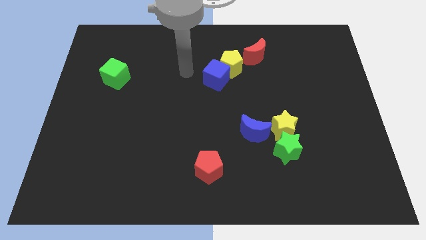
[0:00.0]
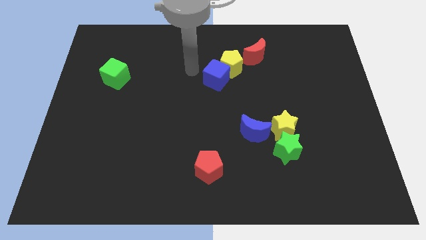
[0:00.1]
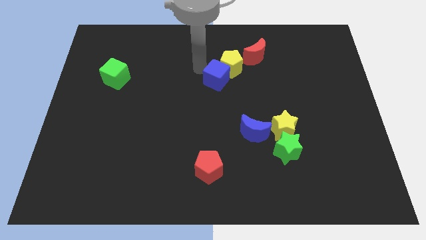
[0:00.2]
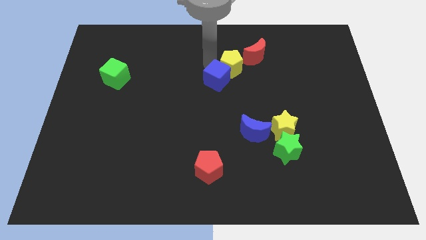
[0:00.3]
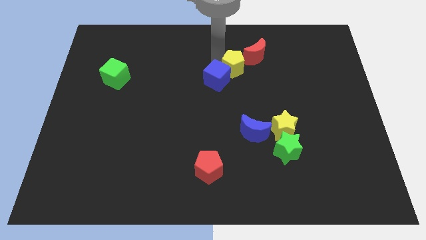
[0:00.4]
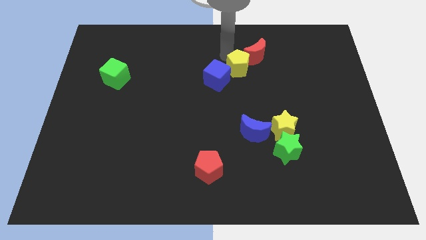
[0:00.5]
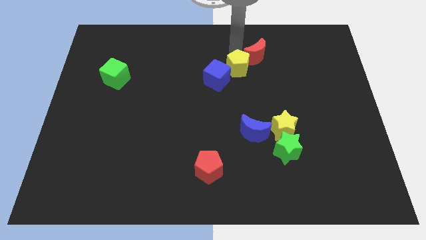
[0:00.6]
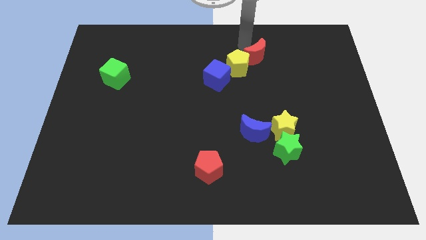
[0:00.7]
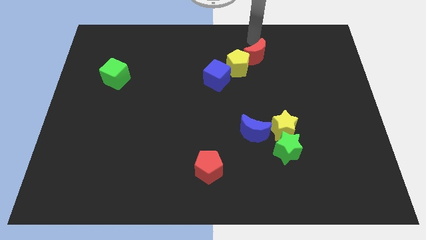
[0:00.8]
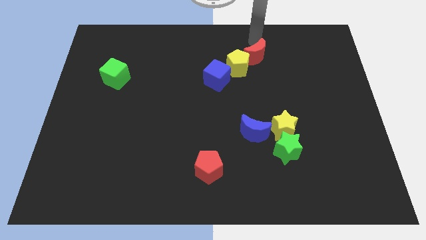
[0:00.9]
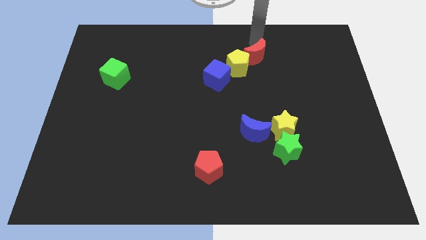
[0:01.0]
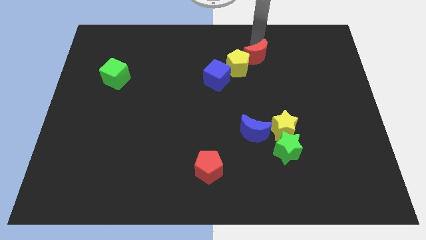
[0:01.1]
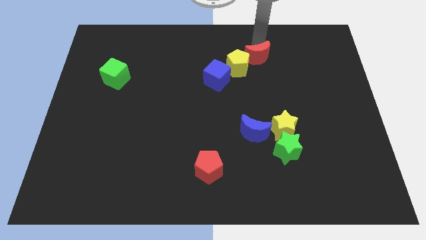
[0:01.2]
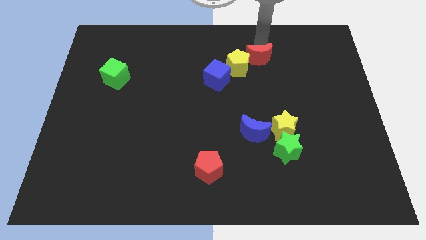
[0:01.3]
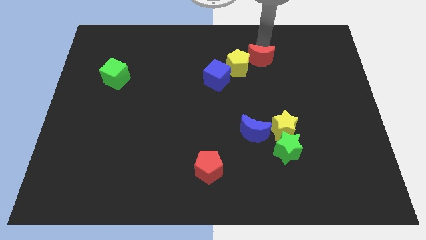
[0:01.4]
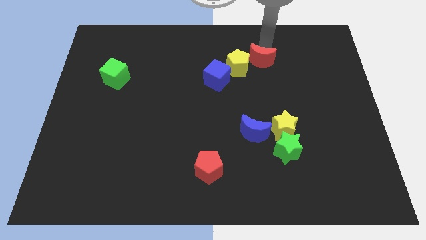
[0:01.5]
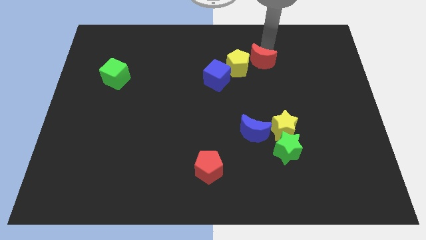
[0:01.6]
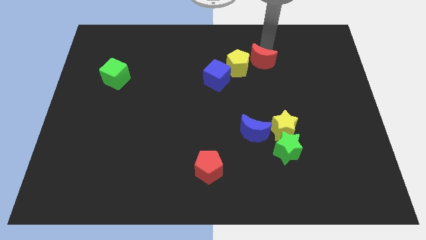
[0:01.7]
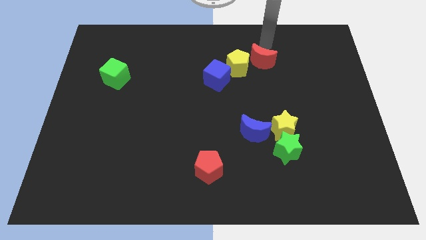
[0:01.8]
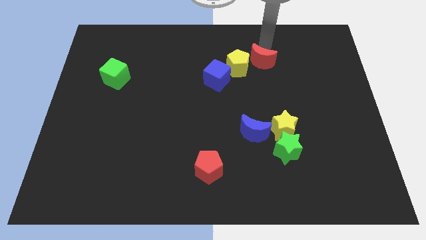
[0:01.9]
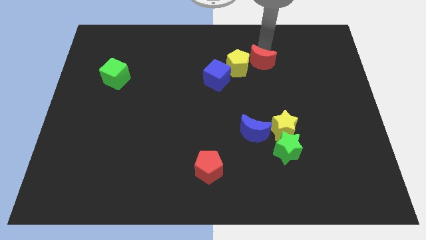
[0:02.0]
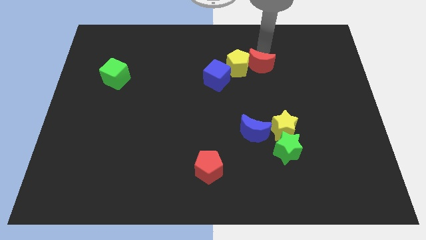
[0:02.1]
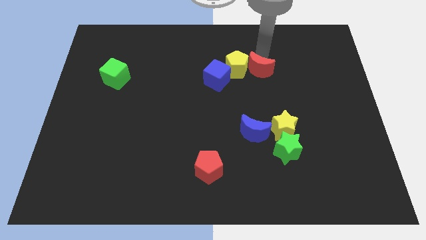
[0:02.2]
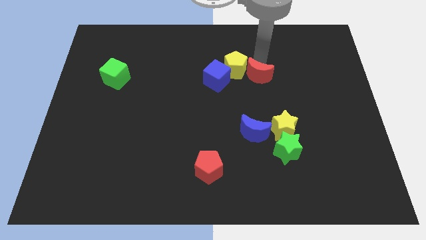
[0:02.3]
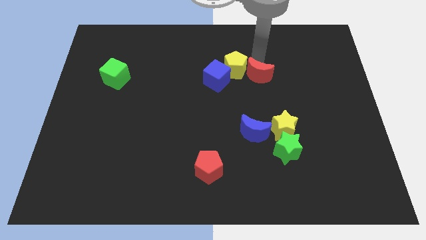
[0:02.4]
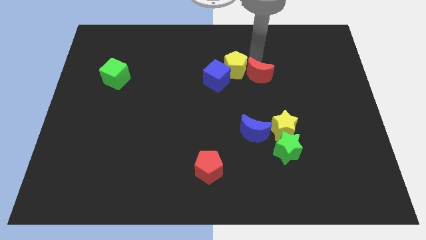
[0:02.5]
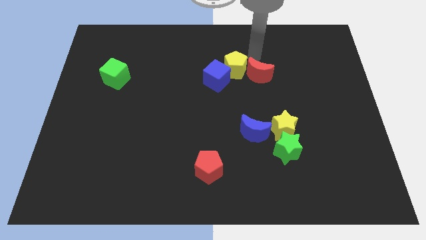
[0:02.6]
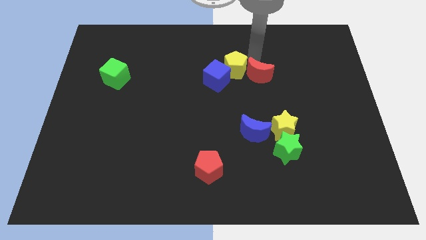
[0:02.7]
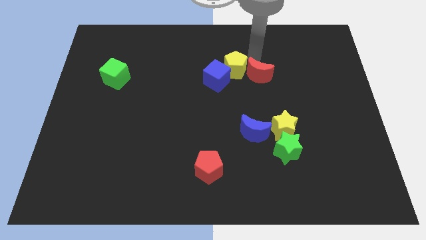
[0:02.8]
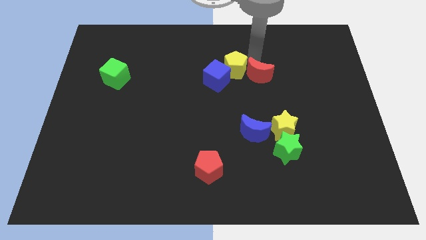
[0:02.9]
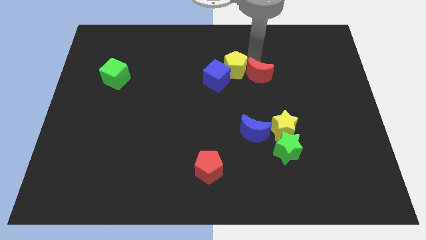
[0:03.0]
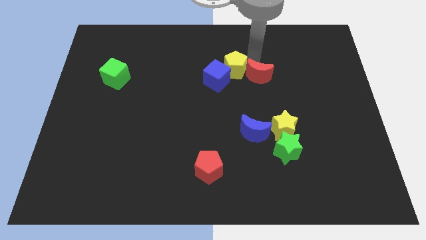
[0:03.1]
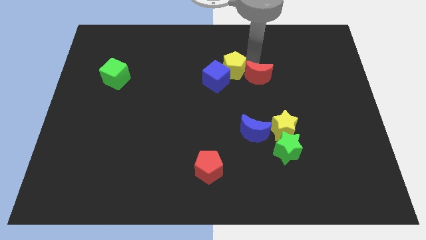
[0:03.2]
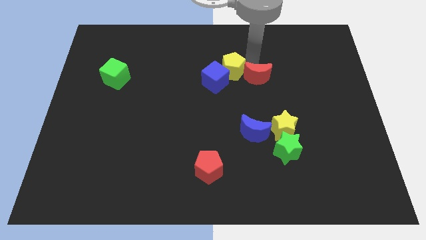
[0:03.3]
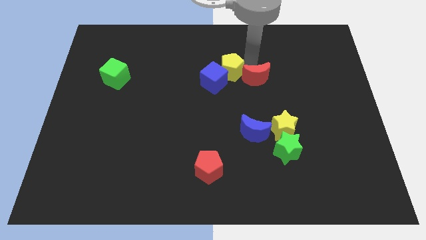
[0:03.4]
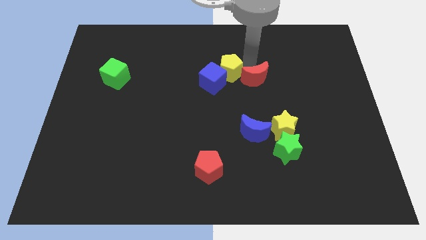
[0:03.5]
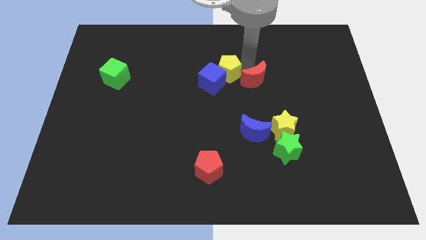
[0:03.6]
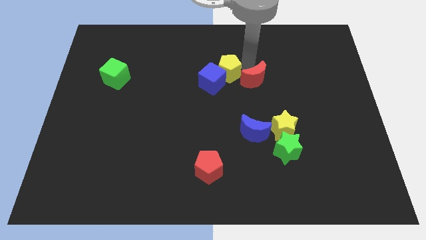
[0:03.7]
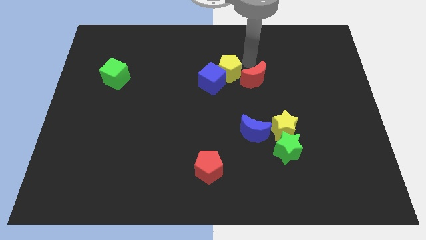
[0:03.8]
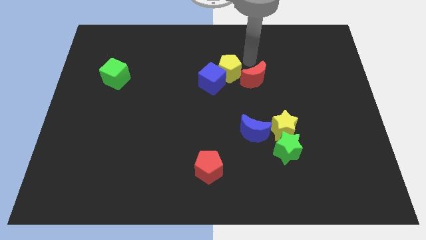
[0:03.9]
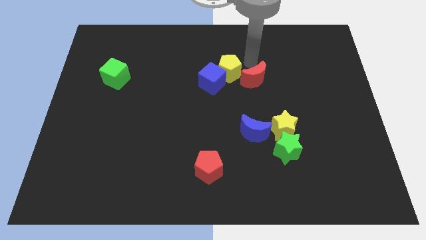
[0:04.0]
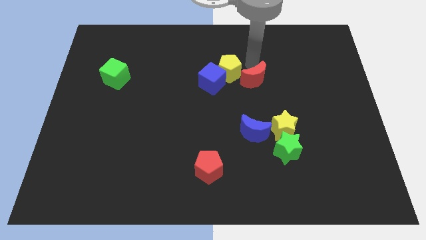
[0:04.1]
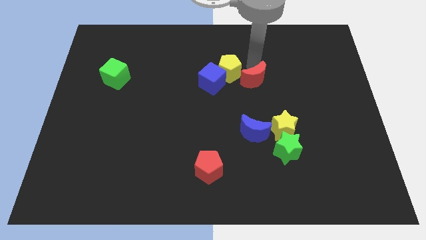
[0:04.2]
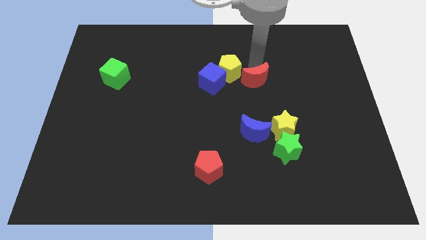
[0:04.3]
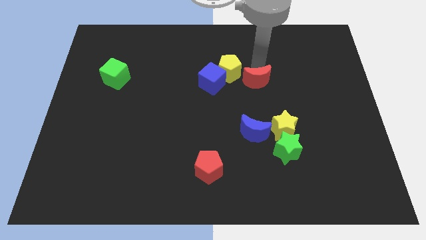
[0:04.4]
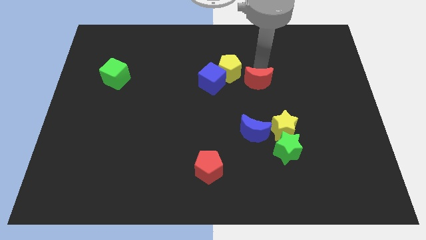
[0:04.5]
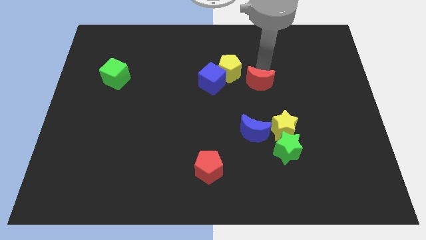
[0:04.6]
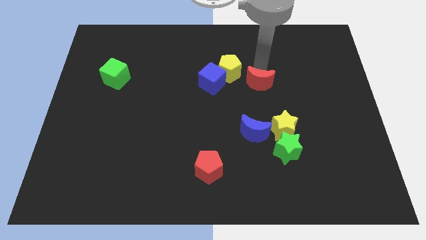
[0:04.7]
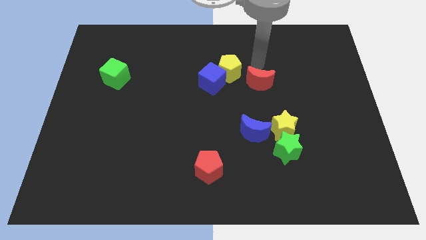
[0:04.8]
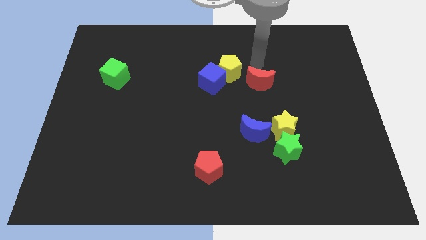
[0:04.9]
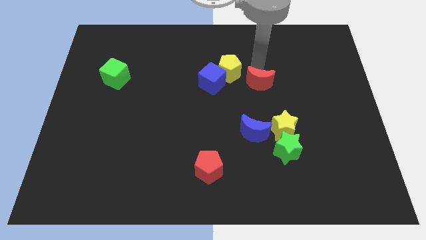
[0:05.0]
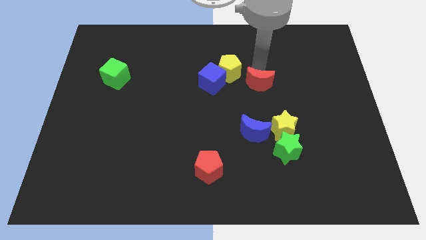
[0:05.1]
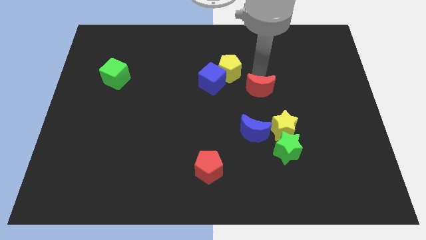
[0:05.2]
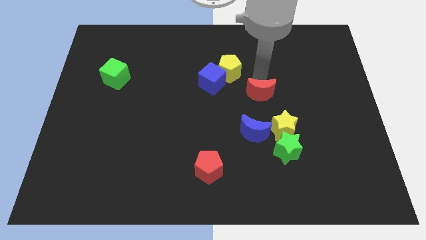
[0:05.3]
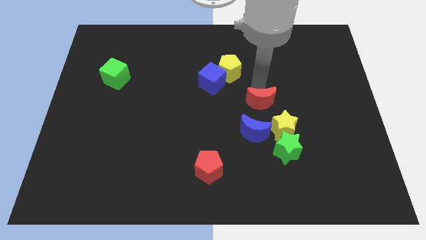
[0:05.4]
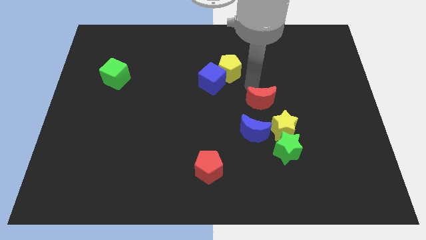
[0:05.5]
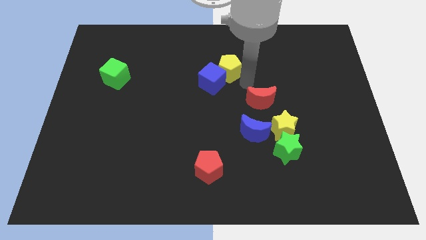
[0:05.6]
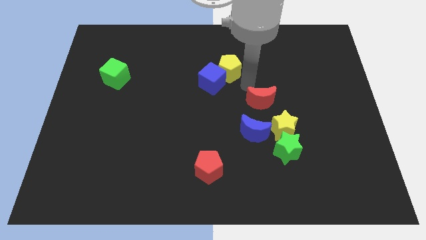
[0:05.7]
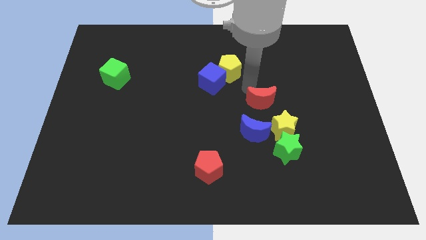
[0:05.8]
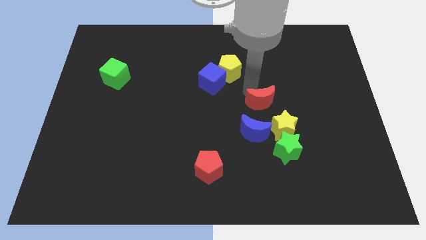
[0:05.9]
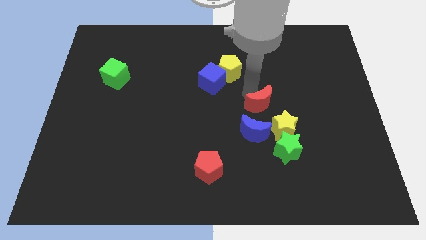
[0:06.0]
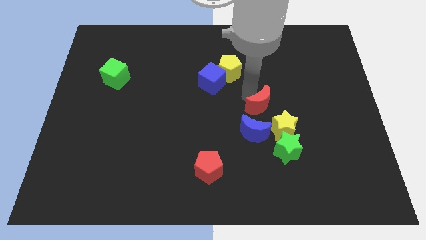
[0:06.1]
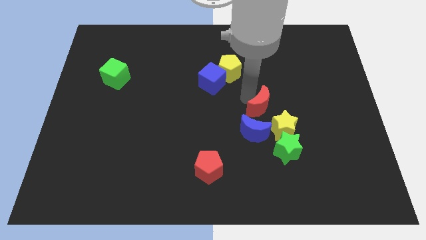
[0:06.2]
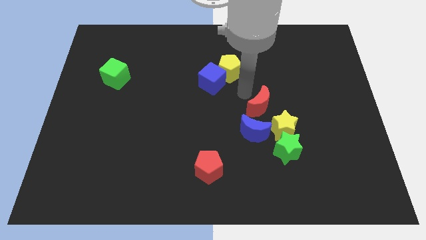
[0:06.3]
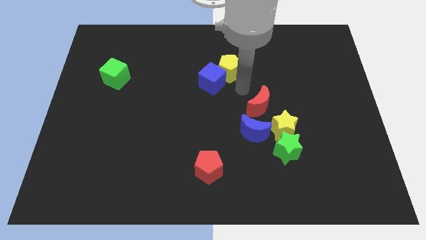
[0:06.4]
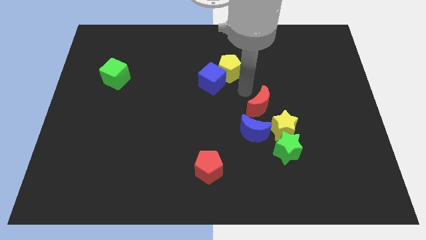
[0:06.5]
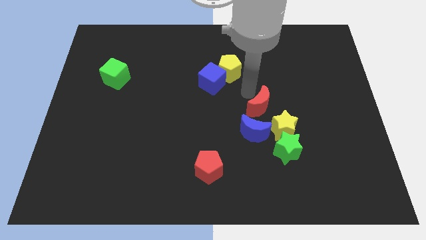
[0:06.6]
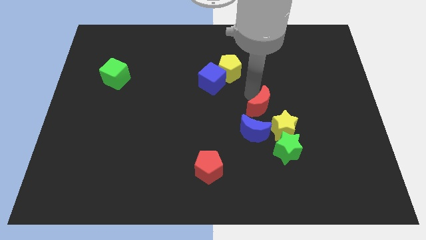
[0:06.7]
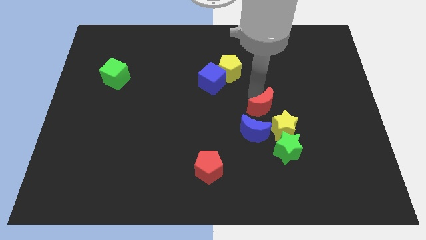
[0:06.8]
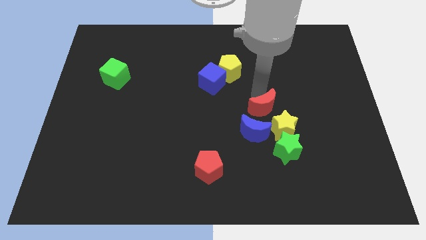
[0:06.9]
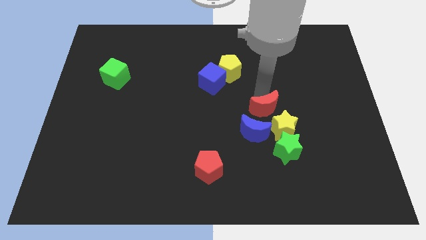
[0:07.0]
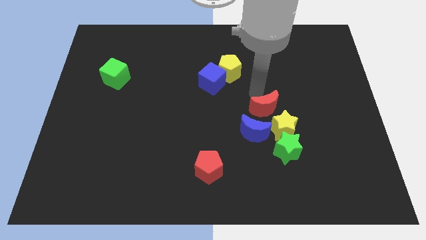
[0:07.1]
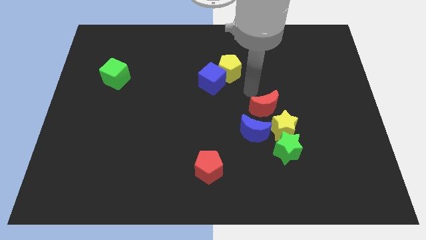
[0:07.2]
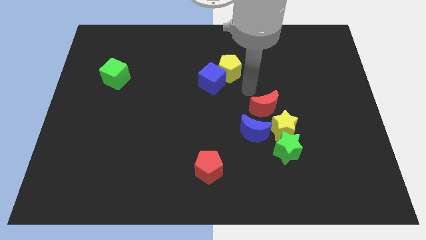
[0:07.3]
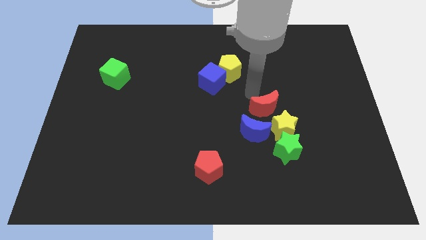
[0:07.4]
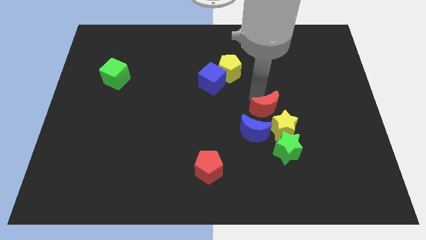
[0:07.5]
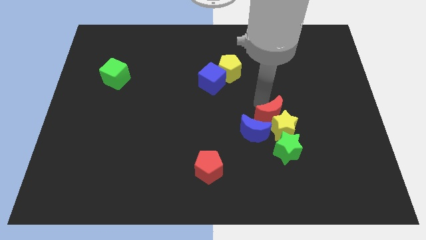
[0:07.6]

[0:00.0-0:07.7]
slide the red moon towards the yellow star
